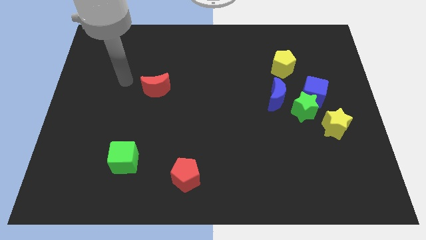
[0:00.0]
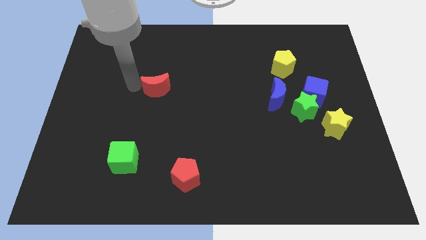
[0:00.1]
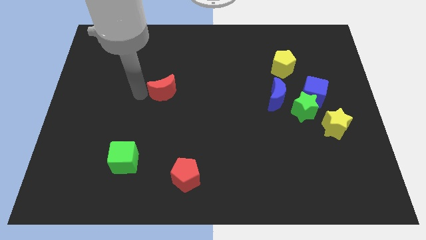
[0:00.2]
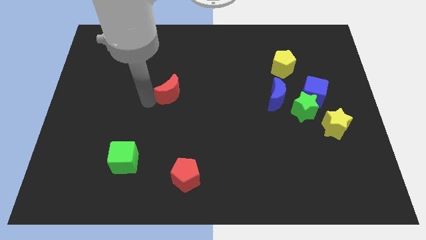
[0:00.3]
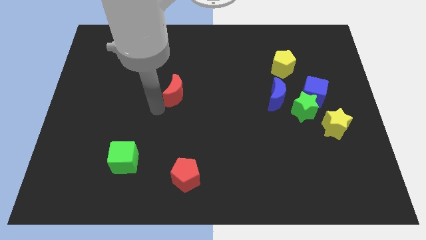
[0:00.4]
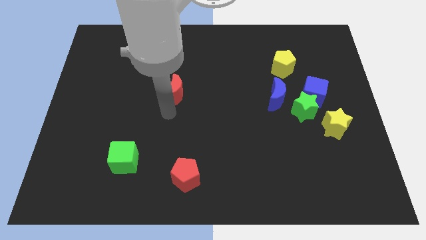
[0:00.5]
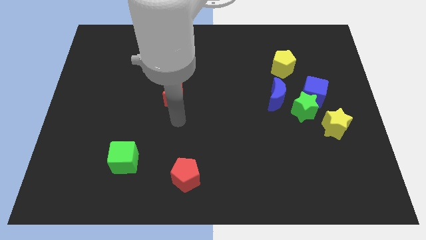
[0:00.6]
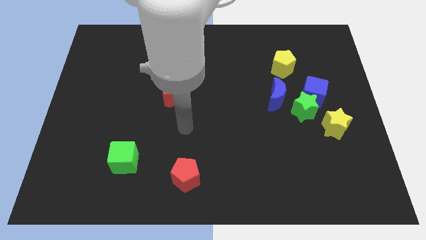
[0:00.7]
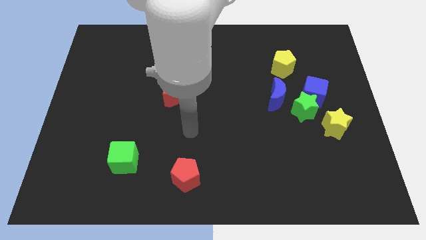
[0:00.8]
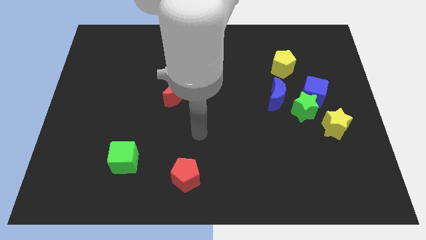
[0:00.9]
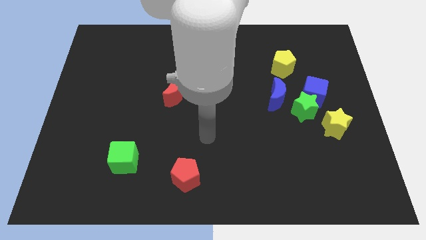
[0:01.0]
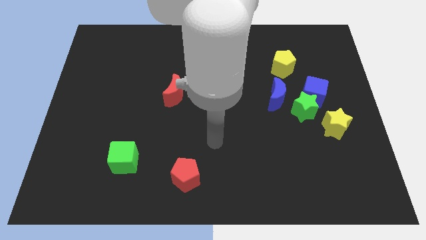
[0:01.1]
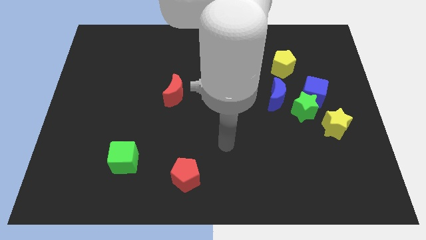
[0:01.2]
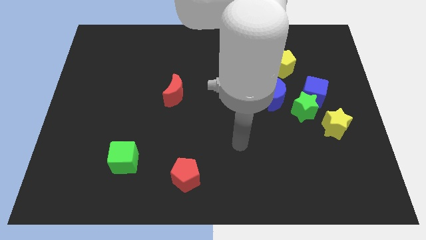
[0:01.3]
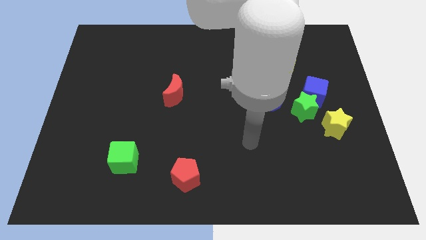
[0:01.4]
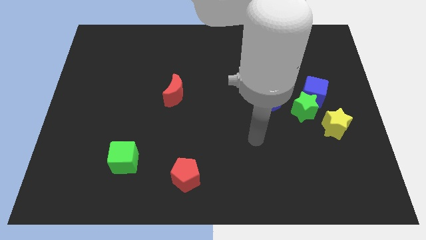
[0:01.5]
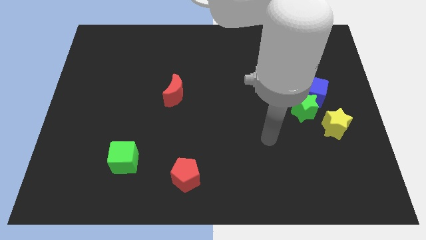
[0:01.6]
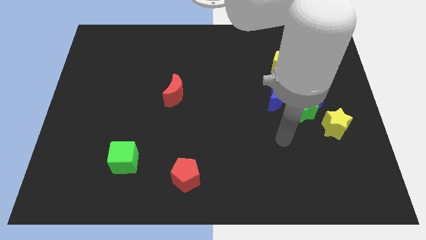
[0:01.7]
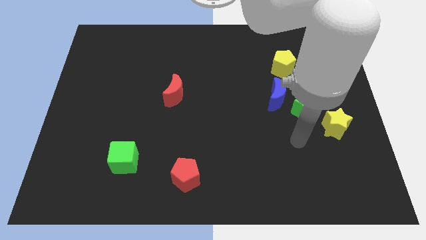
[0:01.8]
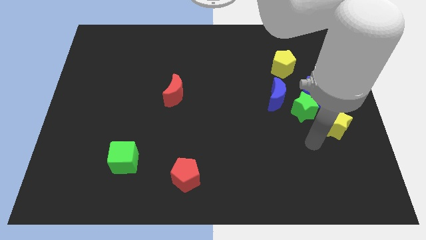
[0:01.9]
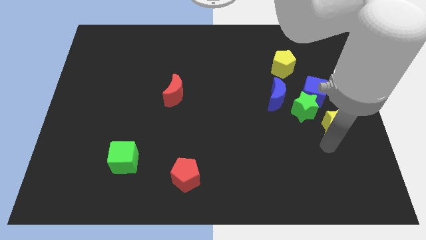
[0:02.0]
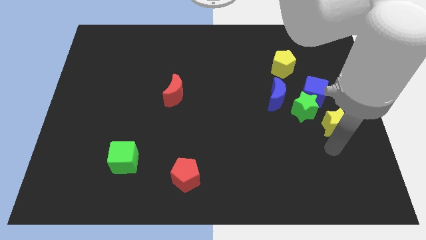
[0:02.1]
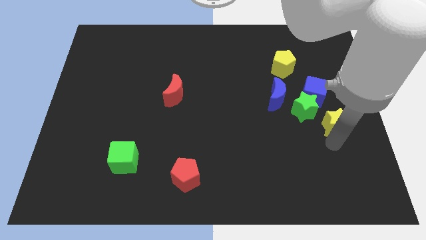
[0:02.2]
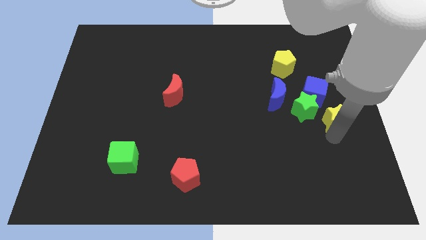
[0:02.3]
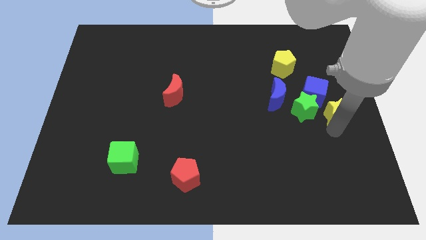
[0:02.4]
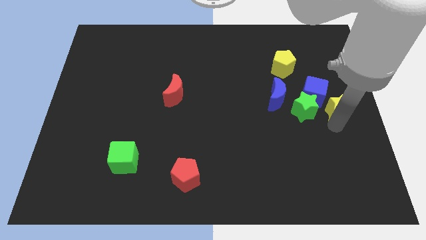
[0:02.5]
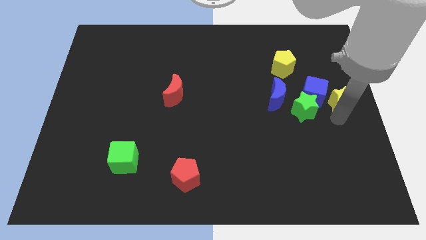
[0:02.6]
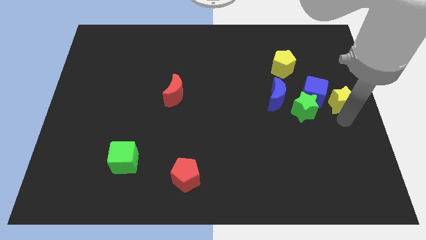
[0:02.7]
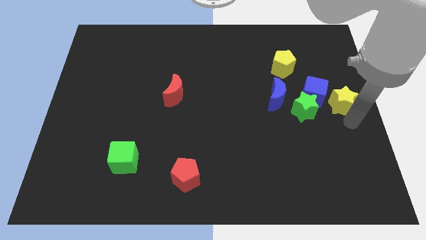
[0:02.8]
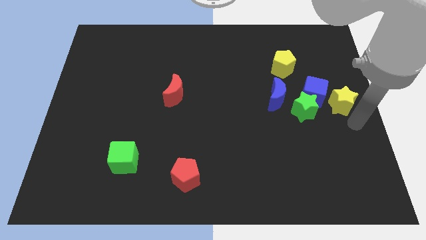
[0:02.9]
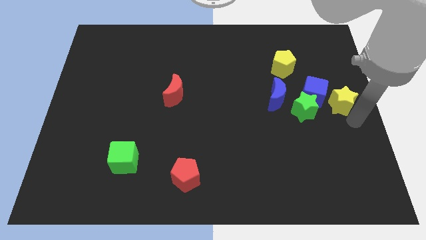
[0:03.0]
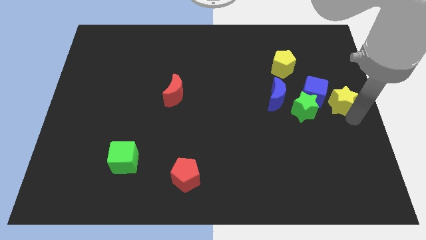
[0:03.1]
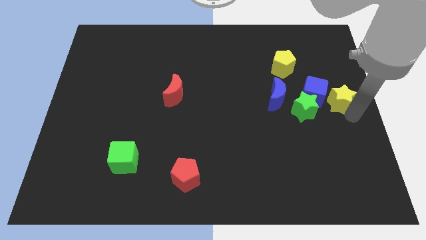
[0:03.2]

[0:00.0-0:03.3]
slightly push the yellow star up

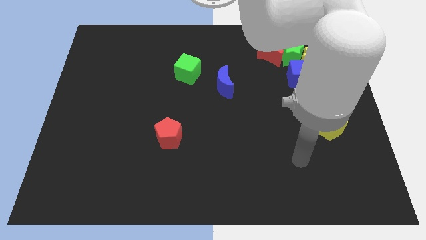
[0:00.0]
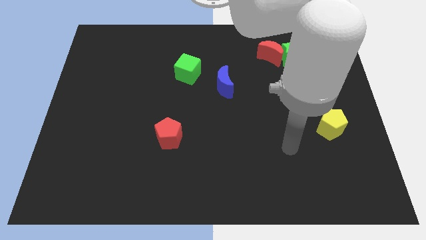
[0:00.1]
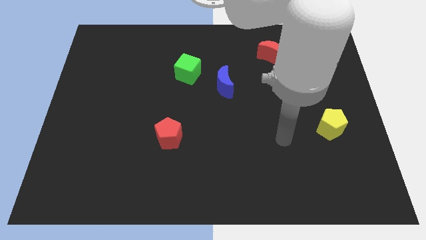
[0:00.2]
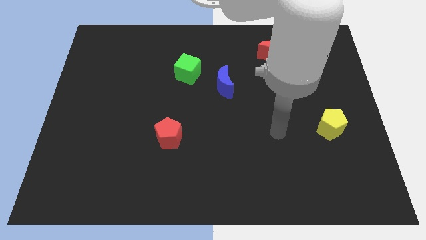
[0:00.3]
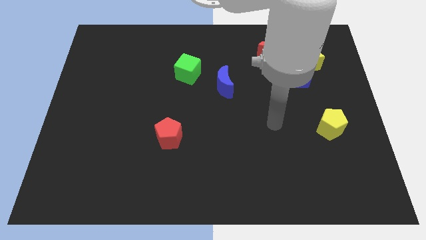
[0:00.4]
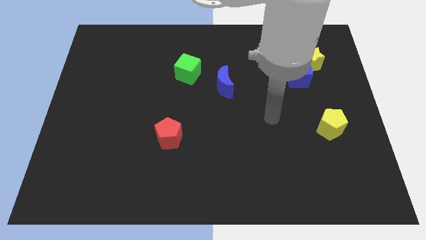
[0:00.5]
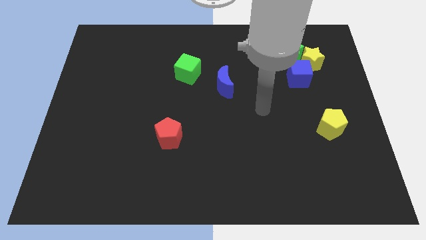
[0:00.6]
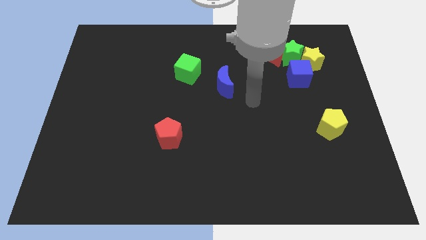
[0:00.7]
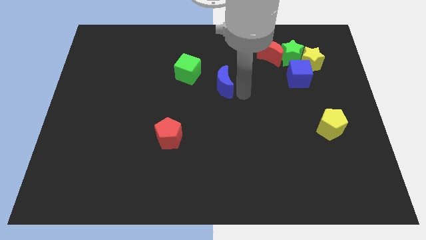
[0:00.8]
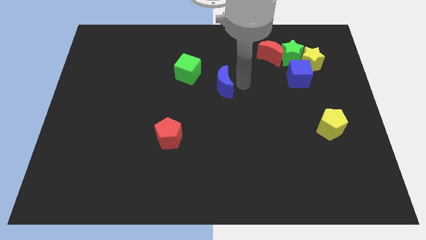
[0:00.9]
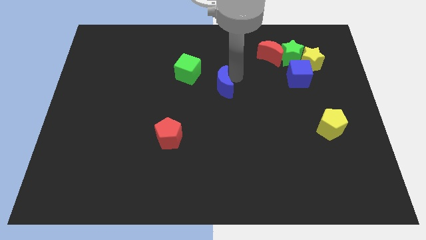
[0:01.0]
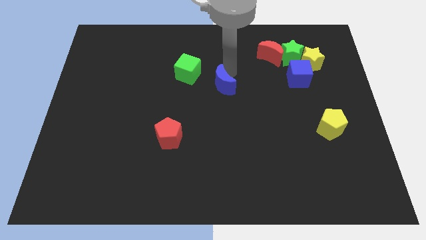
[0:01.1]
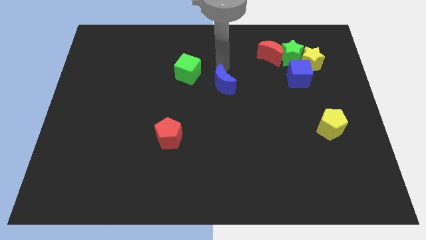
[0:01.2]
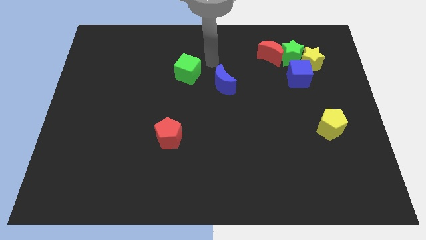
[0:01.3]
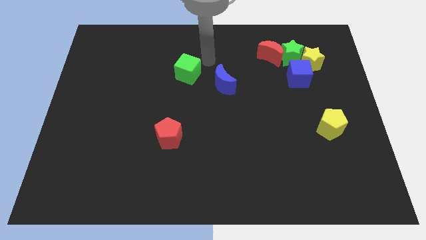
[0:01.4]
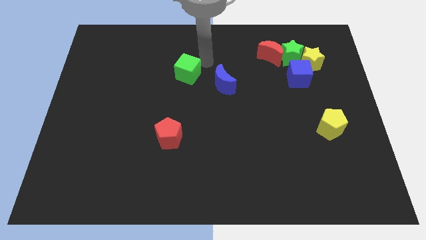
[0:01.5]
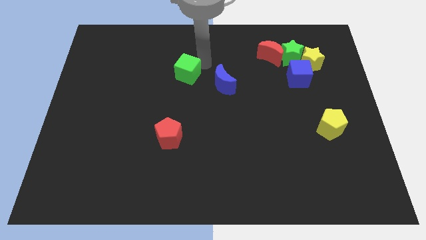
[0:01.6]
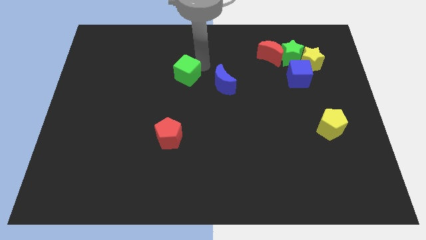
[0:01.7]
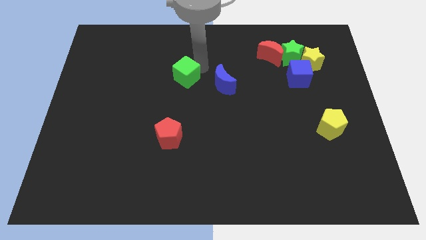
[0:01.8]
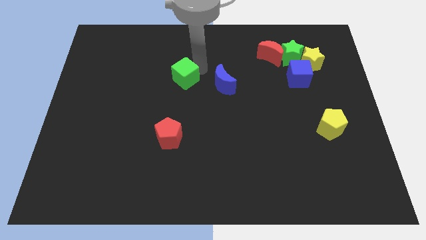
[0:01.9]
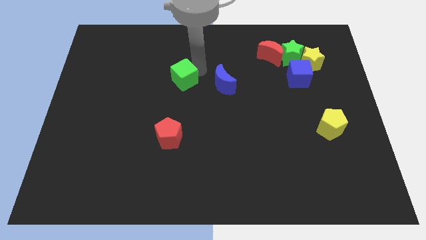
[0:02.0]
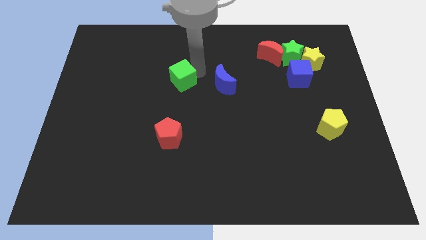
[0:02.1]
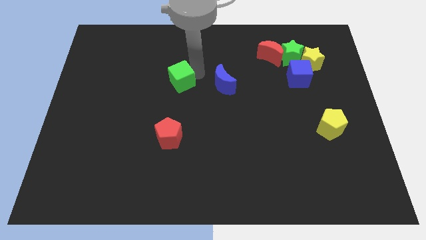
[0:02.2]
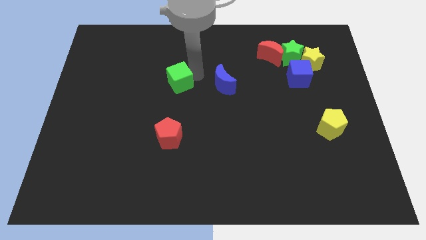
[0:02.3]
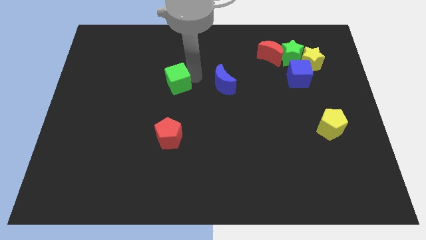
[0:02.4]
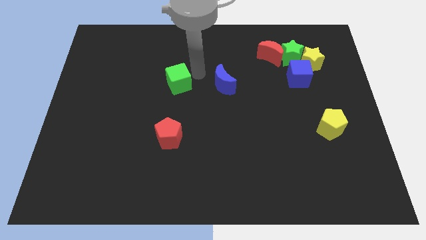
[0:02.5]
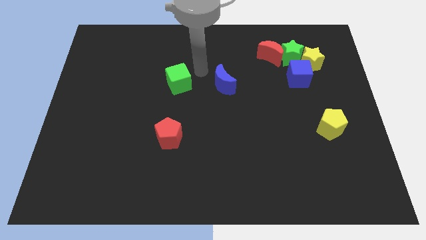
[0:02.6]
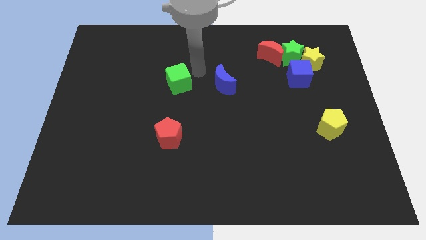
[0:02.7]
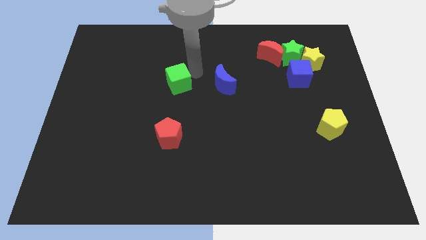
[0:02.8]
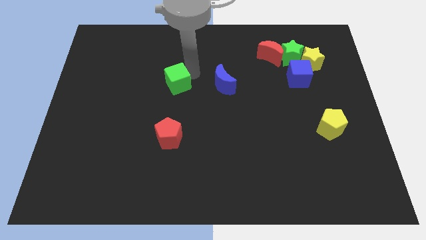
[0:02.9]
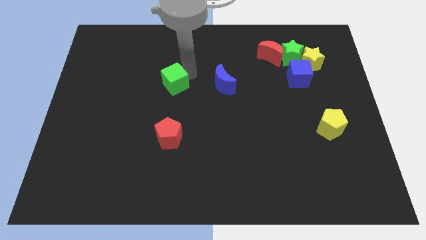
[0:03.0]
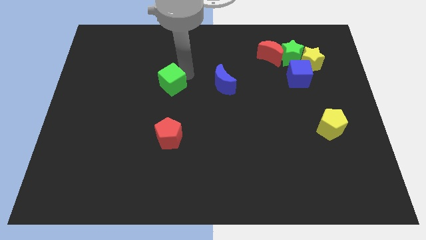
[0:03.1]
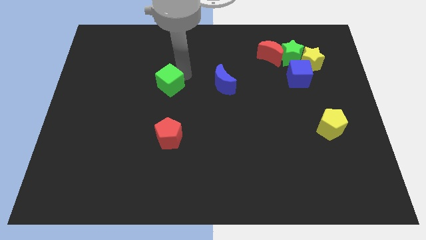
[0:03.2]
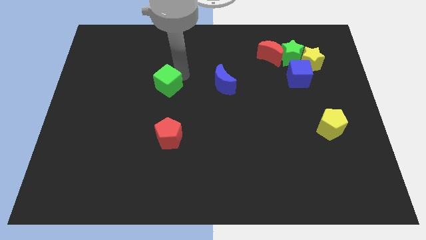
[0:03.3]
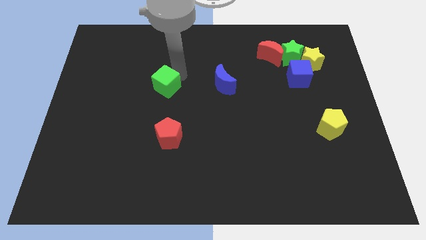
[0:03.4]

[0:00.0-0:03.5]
slightly slide the green cube downwards and to the left

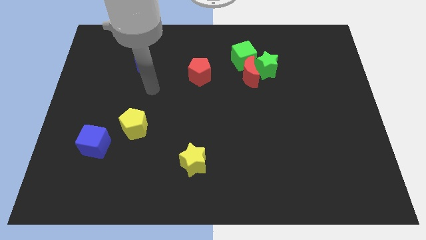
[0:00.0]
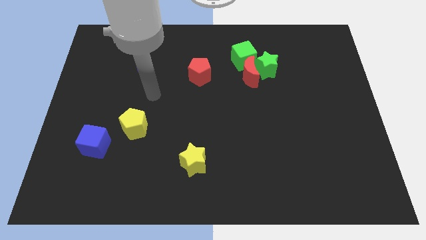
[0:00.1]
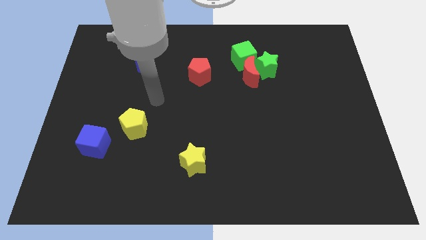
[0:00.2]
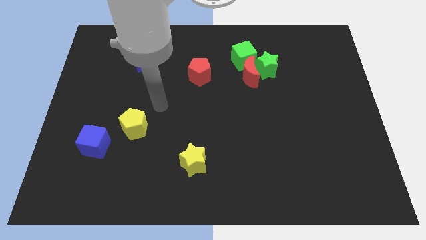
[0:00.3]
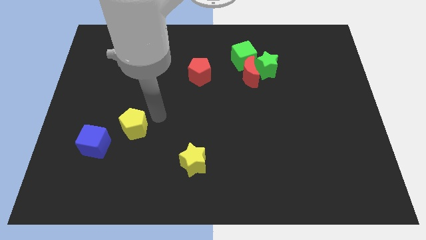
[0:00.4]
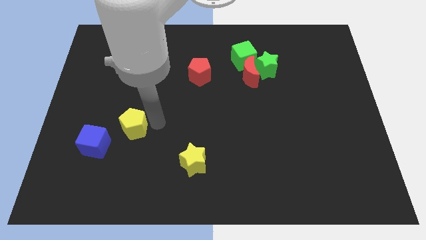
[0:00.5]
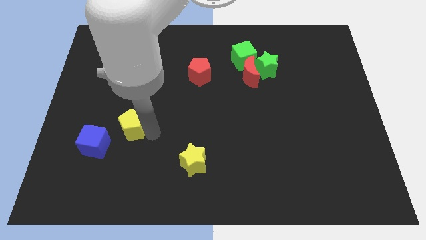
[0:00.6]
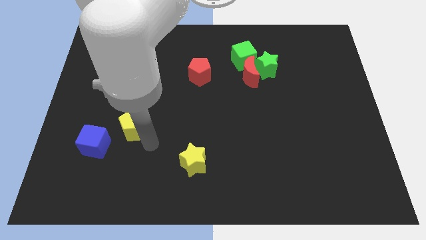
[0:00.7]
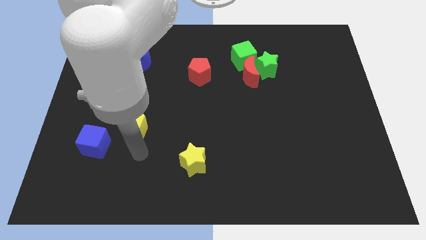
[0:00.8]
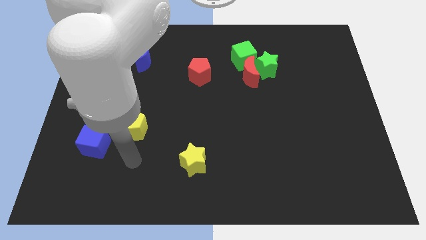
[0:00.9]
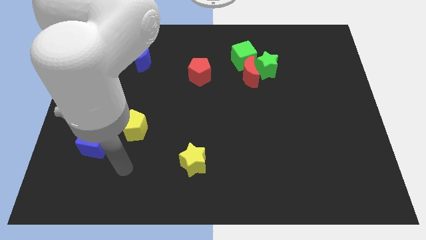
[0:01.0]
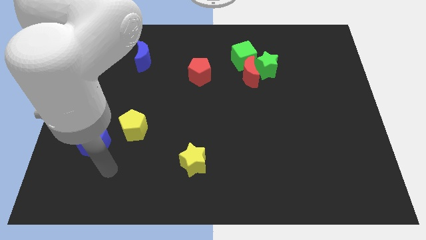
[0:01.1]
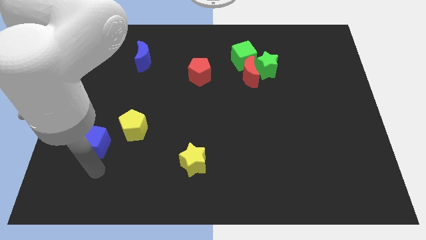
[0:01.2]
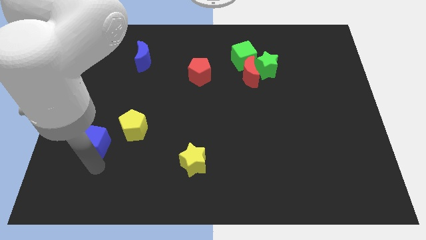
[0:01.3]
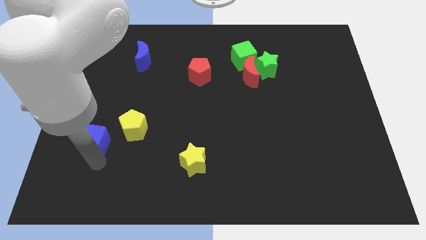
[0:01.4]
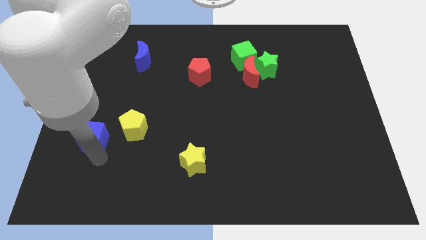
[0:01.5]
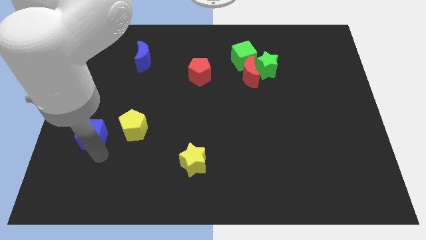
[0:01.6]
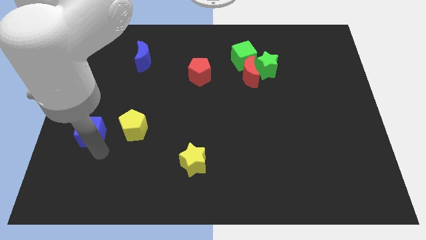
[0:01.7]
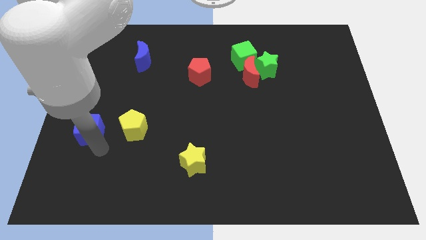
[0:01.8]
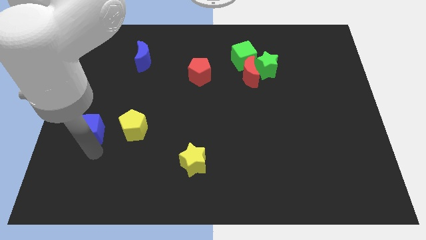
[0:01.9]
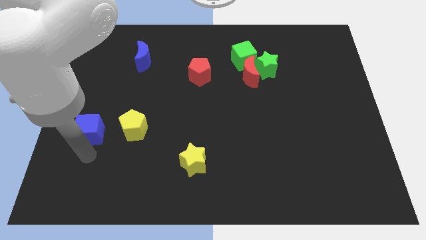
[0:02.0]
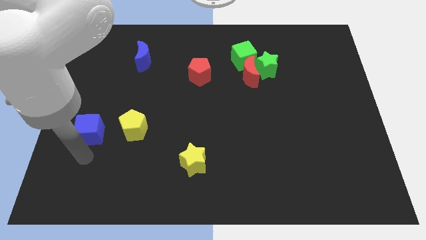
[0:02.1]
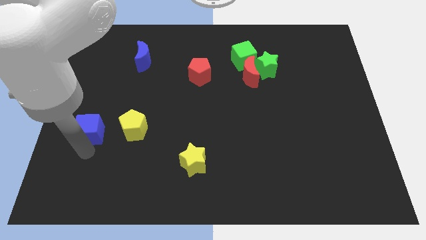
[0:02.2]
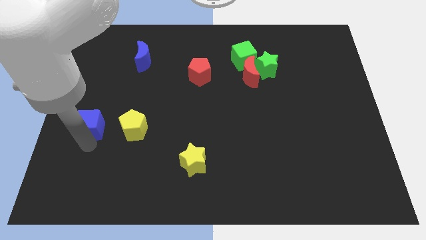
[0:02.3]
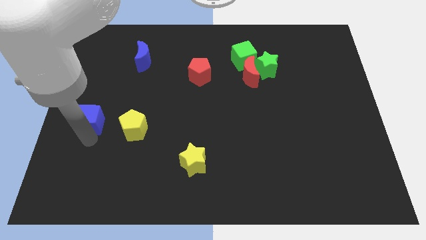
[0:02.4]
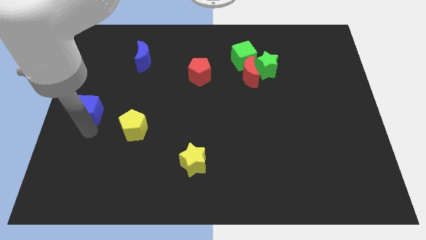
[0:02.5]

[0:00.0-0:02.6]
slightly slide the blue cube upwards
